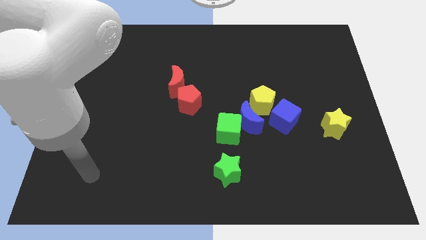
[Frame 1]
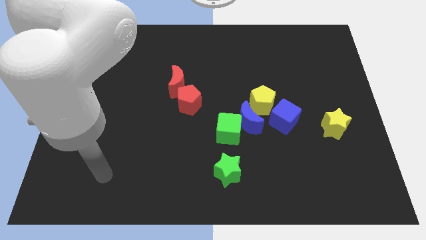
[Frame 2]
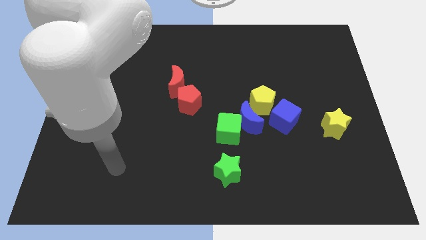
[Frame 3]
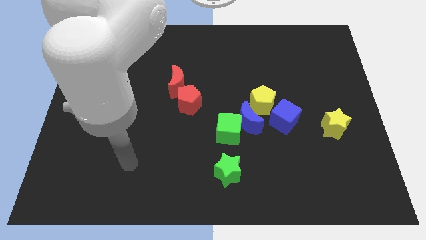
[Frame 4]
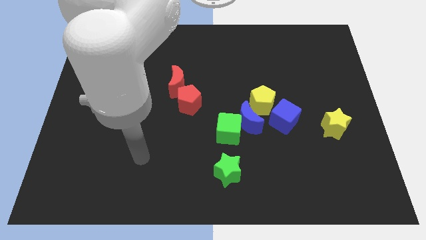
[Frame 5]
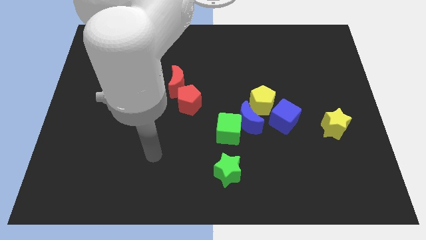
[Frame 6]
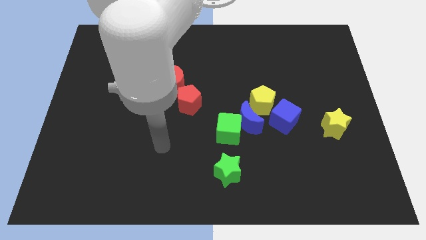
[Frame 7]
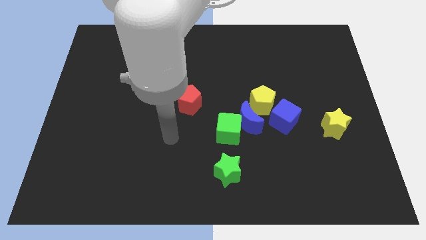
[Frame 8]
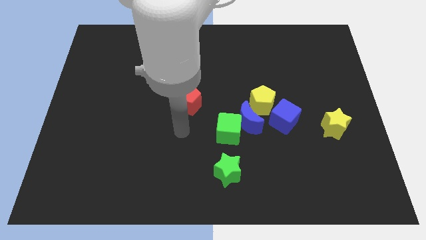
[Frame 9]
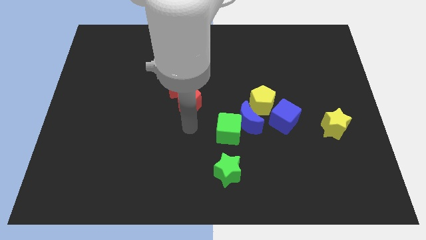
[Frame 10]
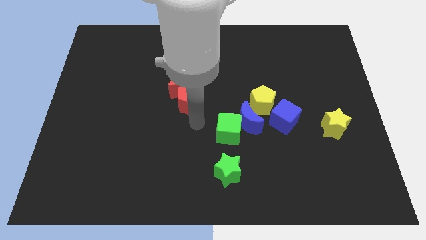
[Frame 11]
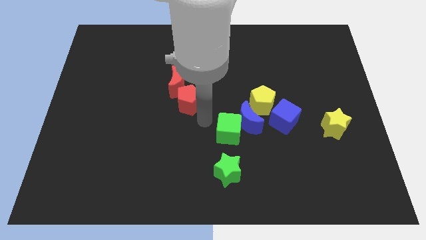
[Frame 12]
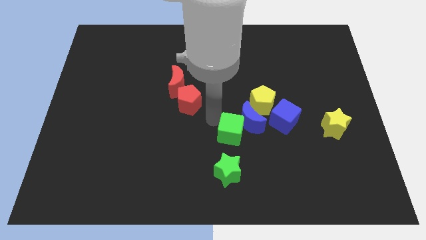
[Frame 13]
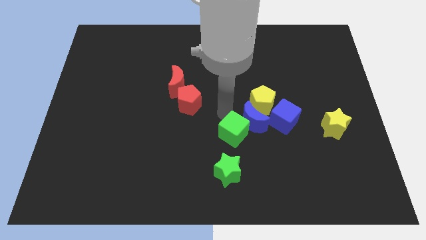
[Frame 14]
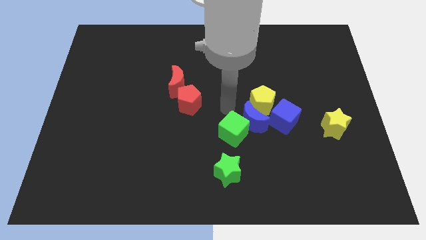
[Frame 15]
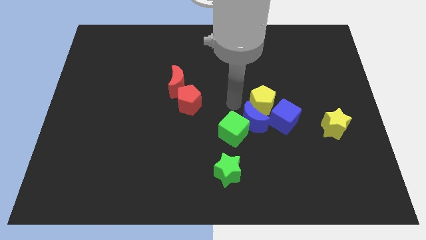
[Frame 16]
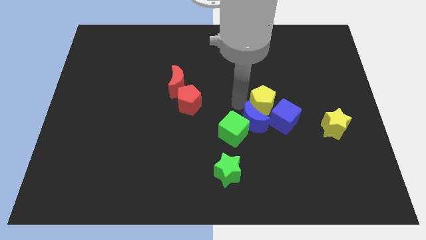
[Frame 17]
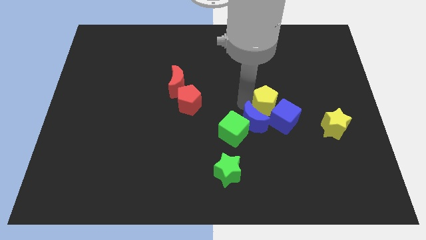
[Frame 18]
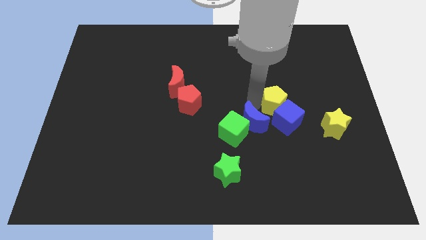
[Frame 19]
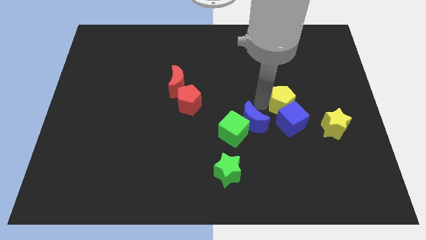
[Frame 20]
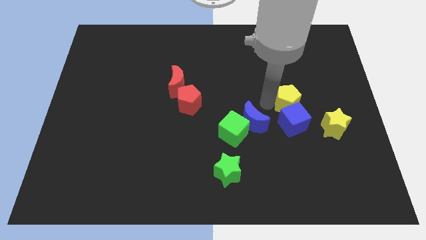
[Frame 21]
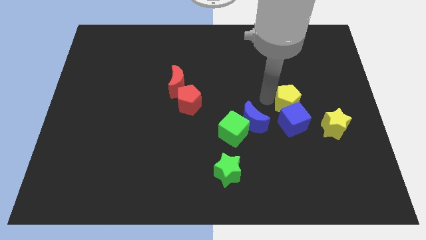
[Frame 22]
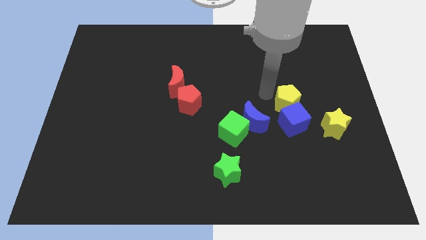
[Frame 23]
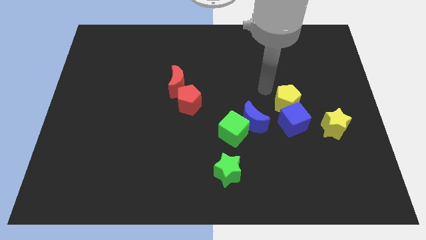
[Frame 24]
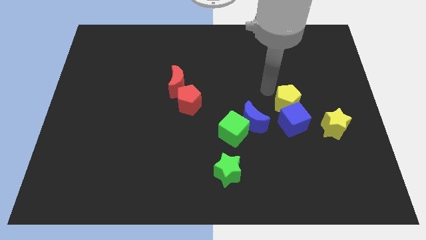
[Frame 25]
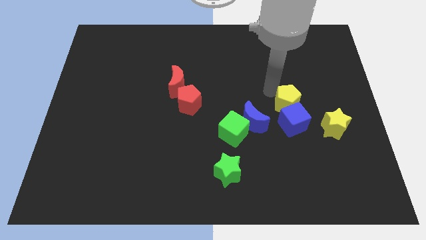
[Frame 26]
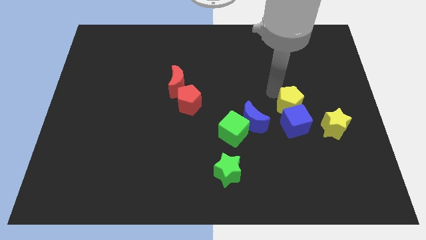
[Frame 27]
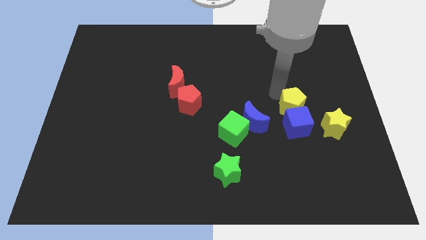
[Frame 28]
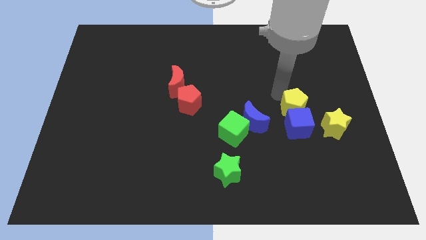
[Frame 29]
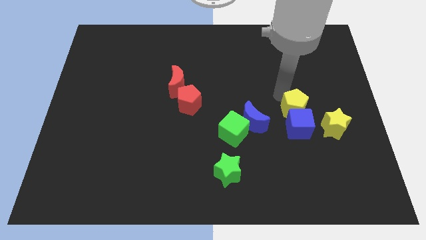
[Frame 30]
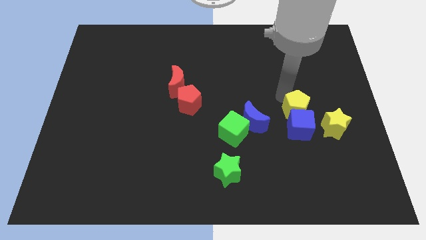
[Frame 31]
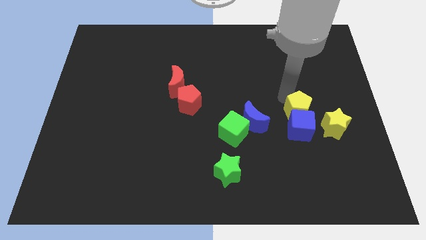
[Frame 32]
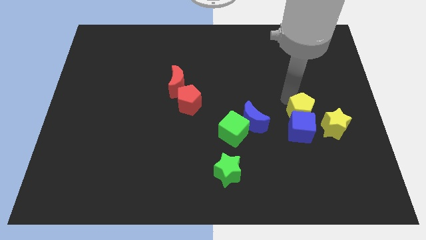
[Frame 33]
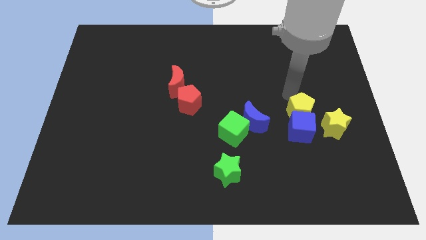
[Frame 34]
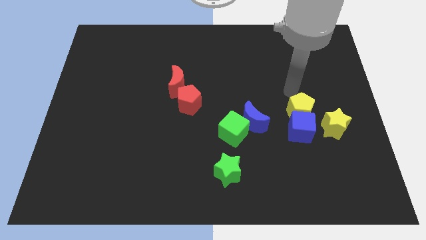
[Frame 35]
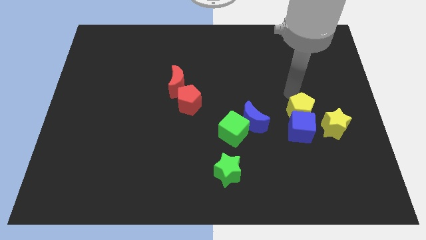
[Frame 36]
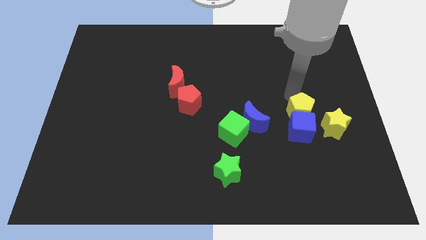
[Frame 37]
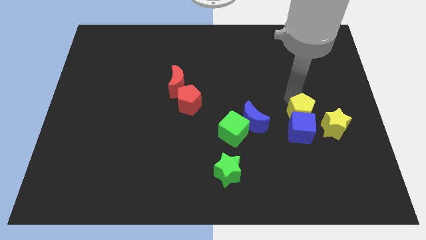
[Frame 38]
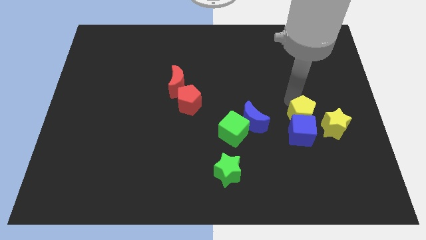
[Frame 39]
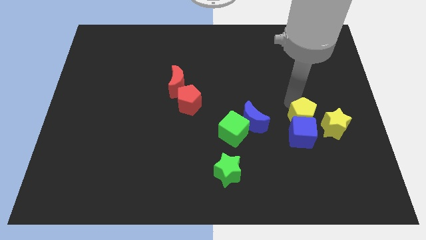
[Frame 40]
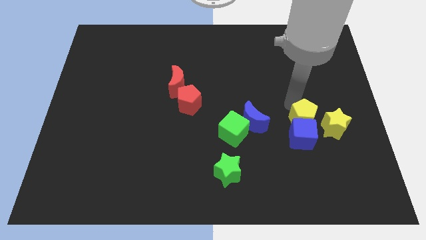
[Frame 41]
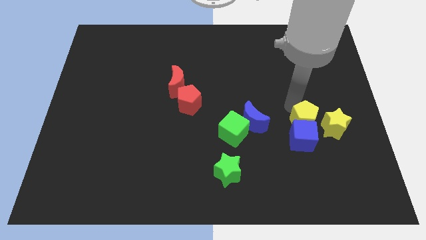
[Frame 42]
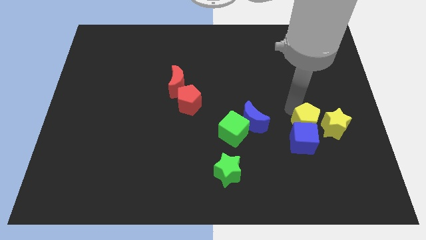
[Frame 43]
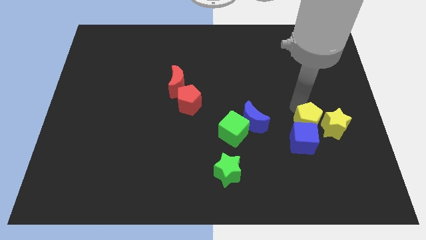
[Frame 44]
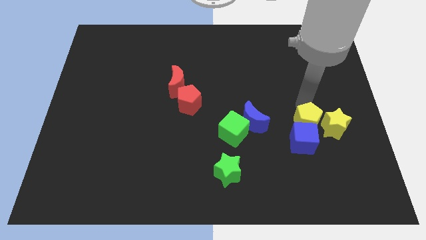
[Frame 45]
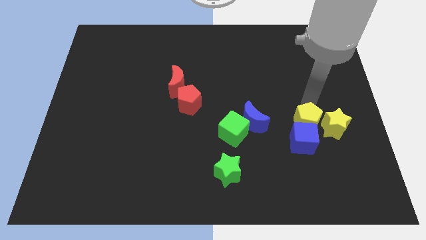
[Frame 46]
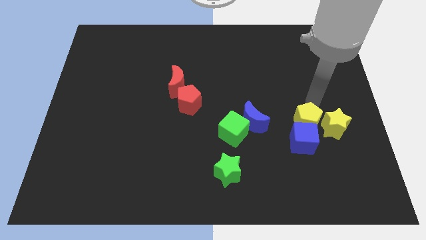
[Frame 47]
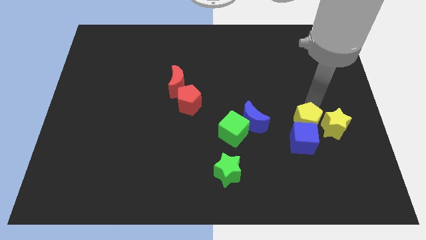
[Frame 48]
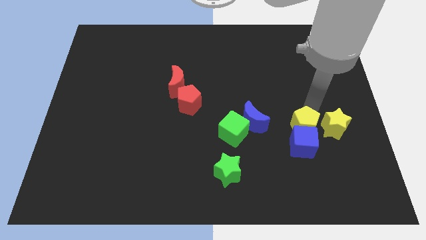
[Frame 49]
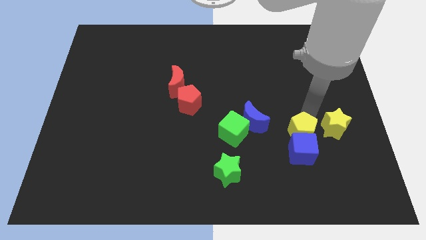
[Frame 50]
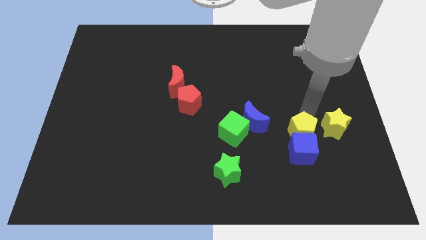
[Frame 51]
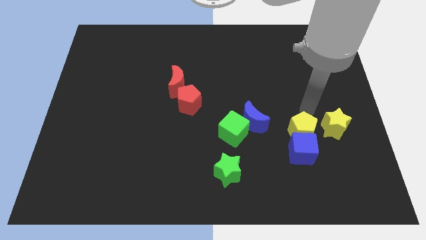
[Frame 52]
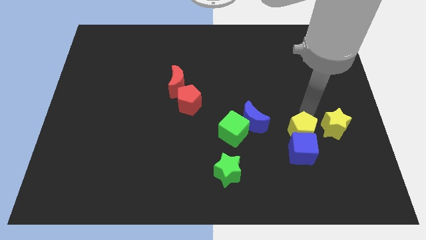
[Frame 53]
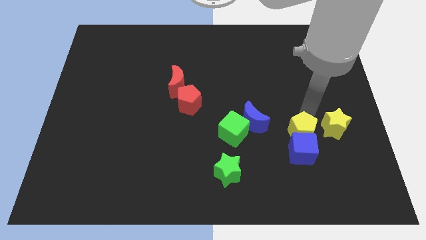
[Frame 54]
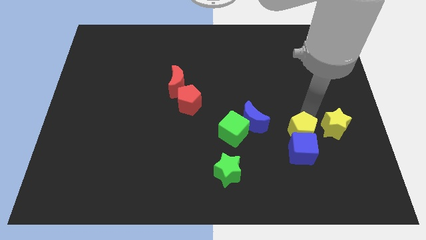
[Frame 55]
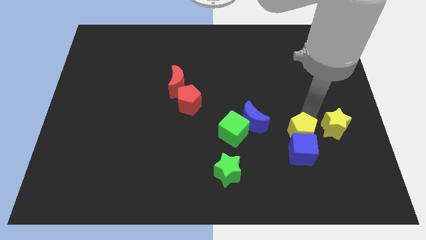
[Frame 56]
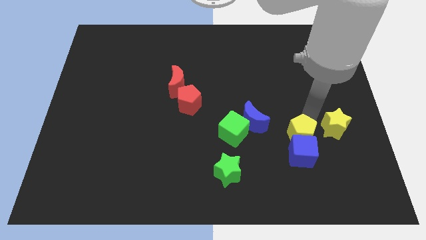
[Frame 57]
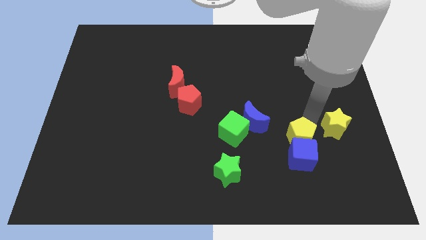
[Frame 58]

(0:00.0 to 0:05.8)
slide the yellow pentagon slightly down

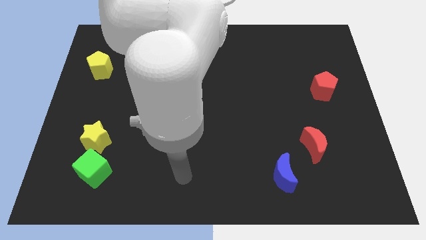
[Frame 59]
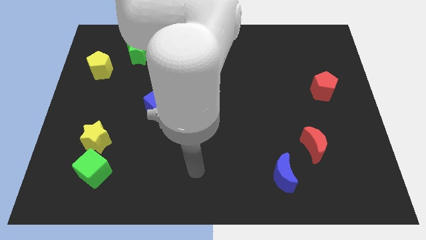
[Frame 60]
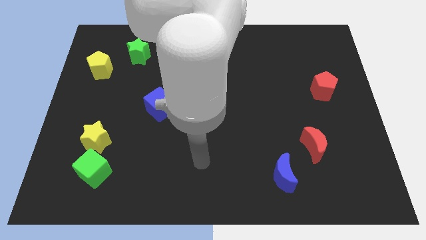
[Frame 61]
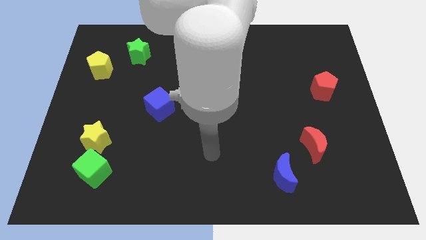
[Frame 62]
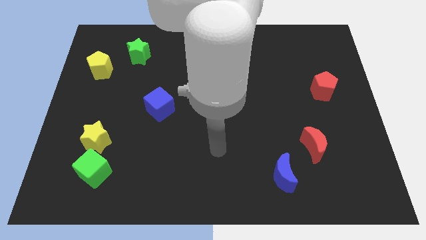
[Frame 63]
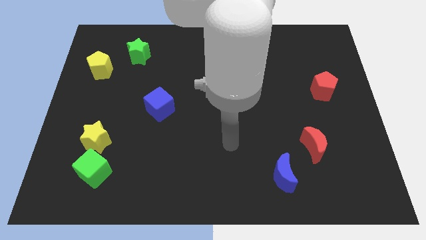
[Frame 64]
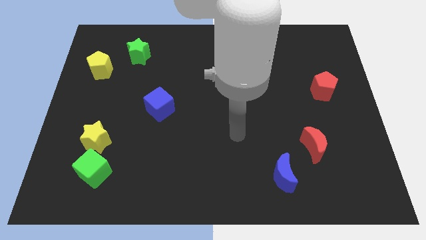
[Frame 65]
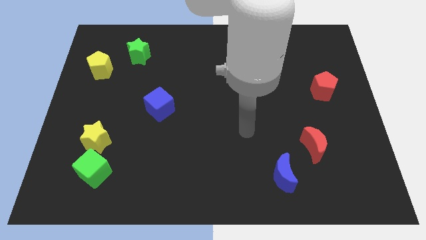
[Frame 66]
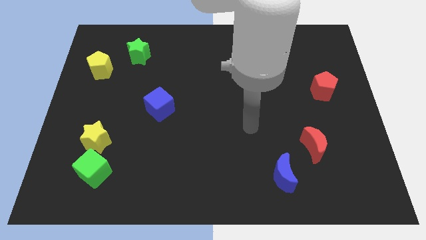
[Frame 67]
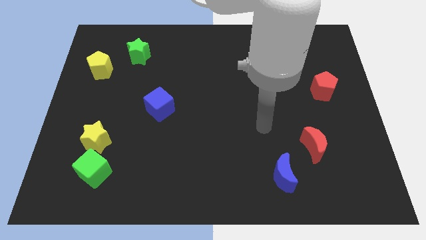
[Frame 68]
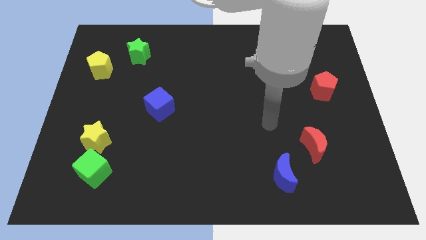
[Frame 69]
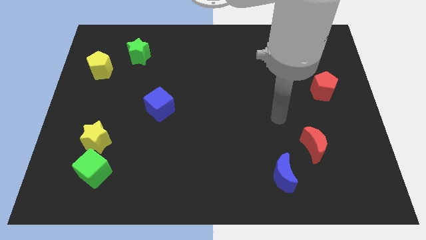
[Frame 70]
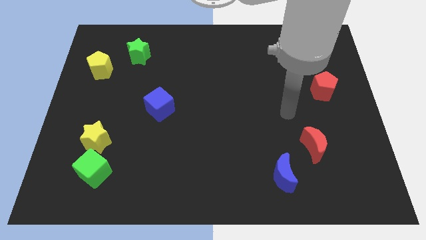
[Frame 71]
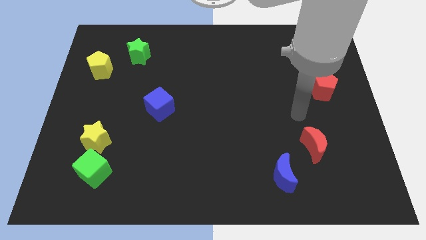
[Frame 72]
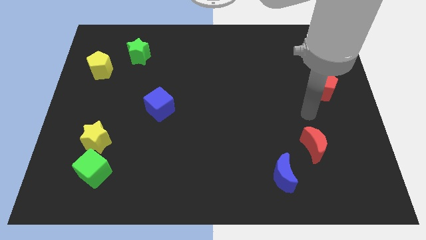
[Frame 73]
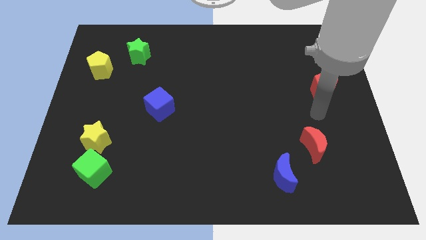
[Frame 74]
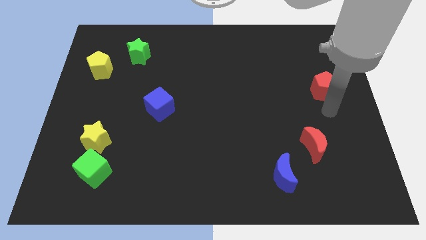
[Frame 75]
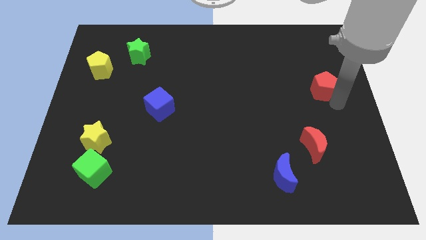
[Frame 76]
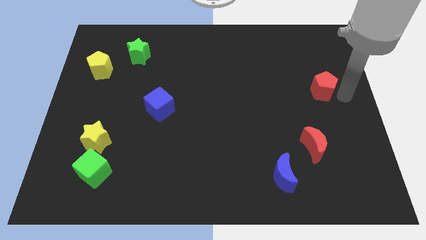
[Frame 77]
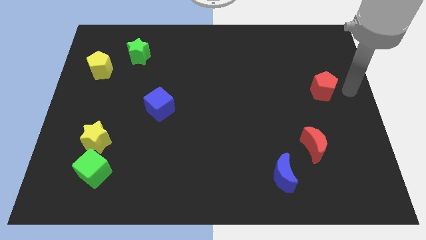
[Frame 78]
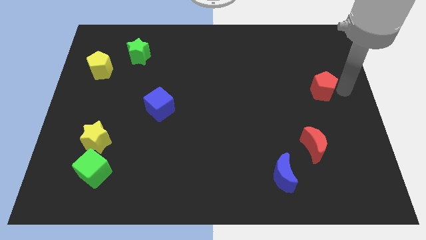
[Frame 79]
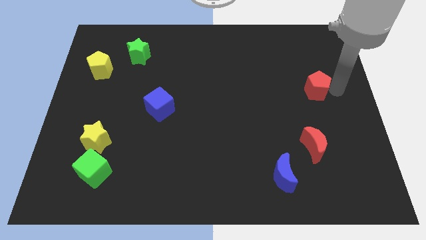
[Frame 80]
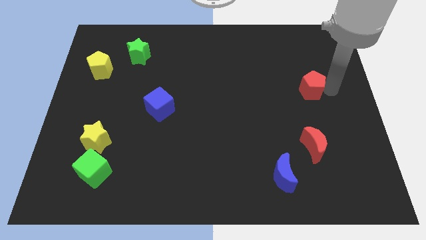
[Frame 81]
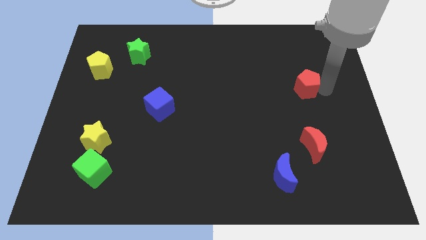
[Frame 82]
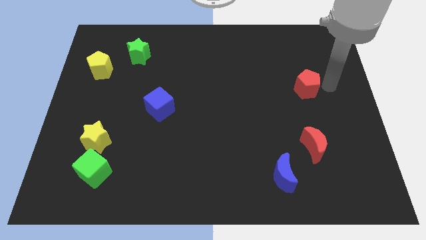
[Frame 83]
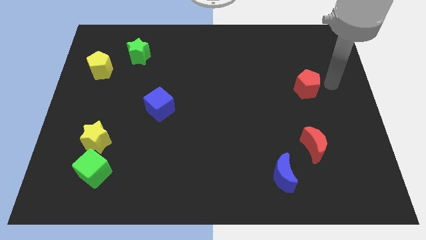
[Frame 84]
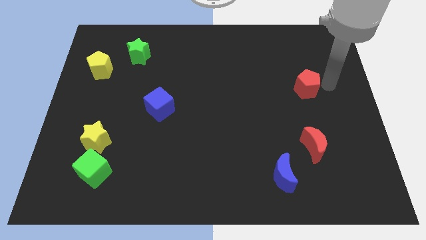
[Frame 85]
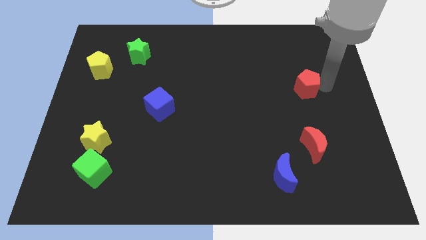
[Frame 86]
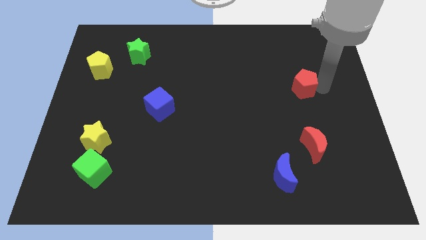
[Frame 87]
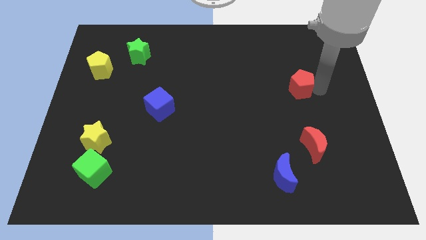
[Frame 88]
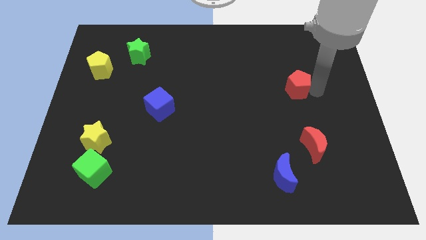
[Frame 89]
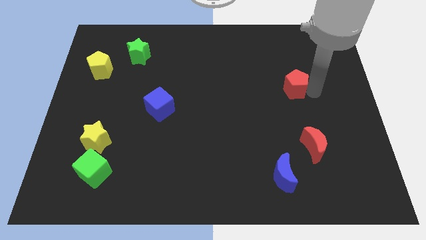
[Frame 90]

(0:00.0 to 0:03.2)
move the red pentagon somewhat left
